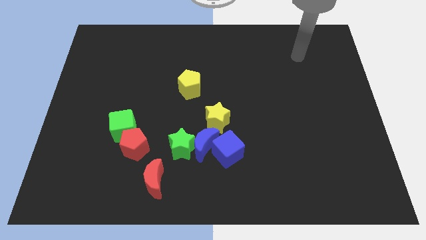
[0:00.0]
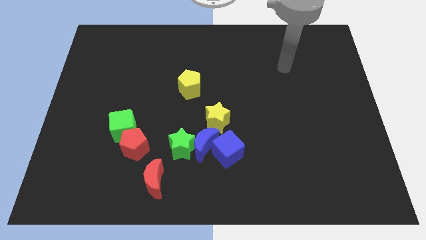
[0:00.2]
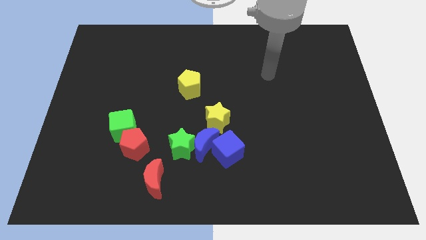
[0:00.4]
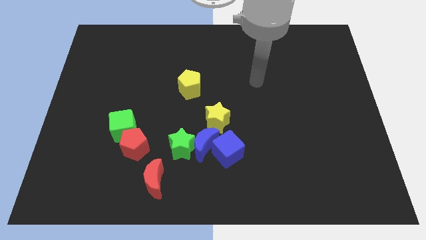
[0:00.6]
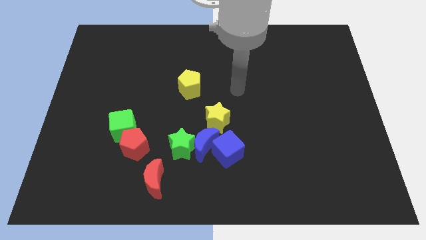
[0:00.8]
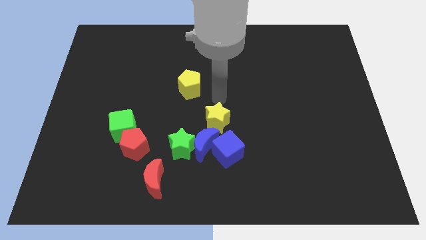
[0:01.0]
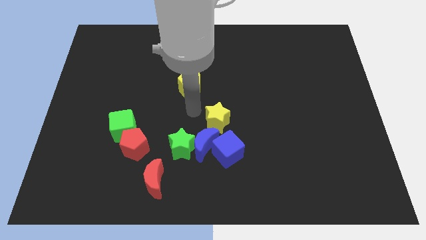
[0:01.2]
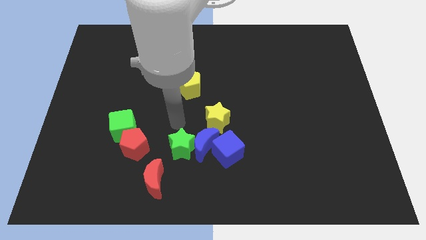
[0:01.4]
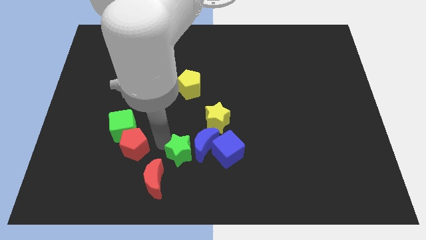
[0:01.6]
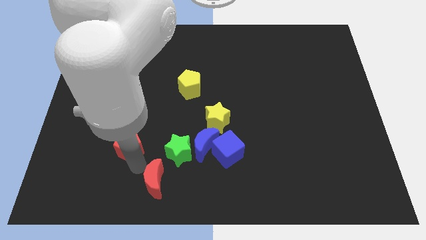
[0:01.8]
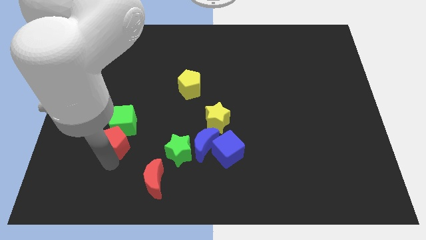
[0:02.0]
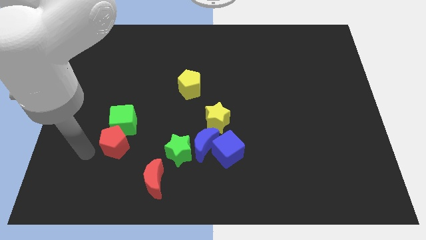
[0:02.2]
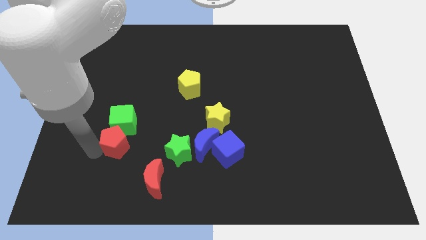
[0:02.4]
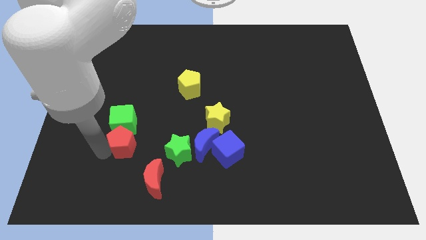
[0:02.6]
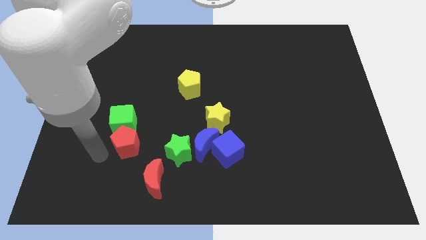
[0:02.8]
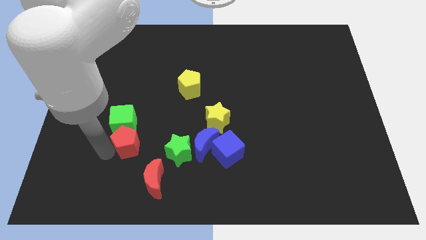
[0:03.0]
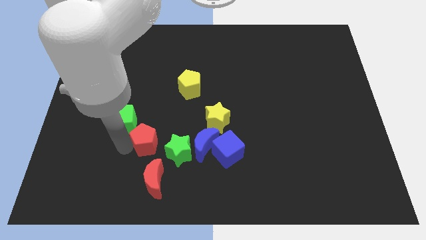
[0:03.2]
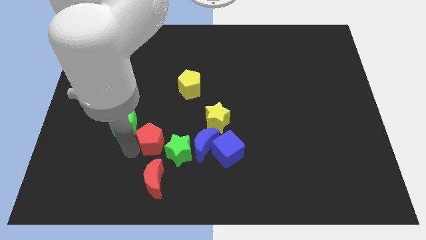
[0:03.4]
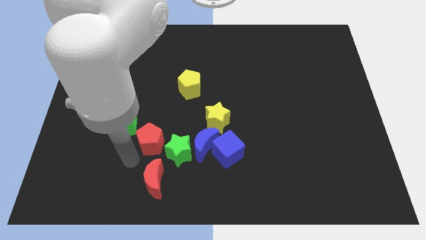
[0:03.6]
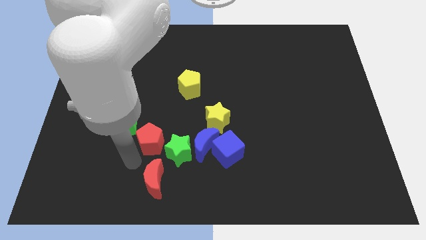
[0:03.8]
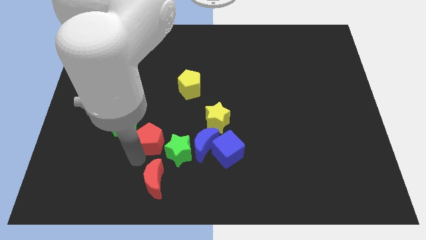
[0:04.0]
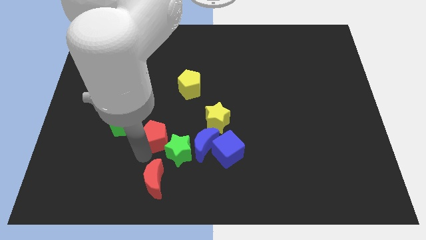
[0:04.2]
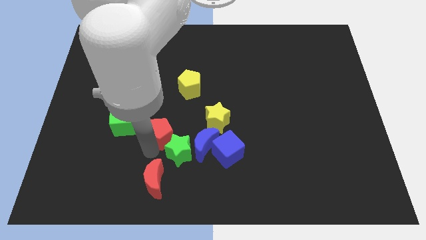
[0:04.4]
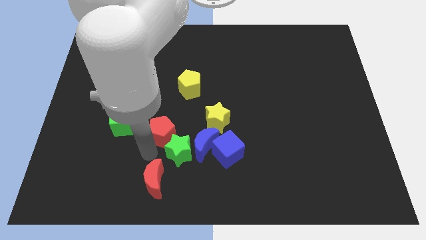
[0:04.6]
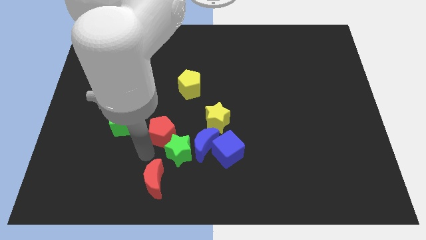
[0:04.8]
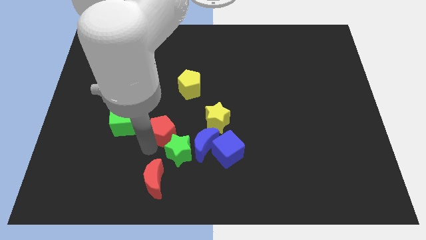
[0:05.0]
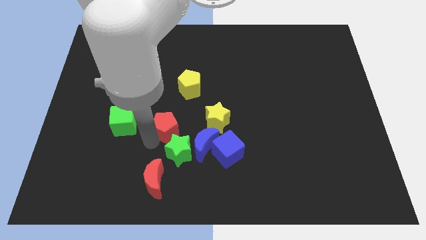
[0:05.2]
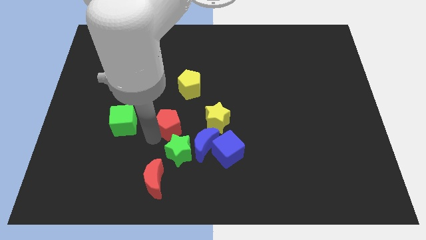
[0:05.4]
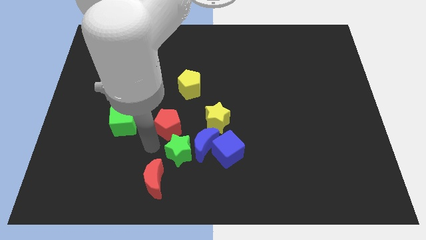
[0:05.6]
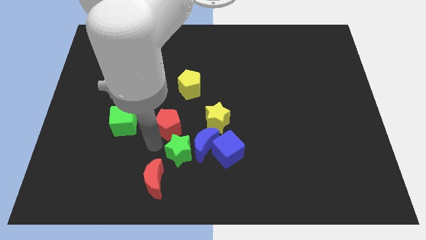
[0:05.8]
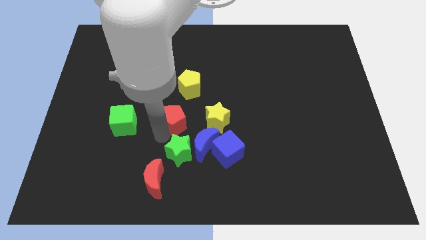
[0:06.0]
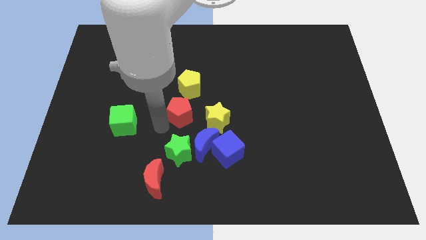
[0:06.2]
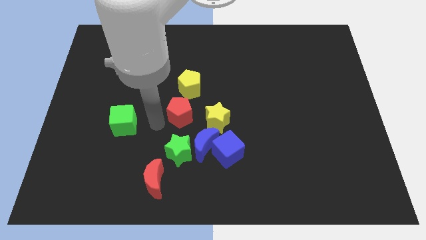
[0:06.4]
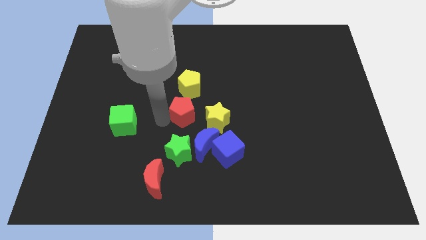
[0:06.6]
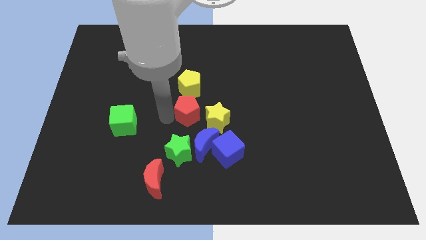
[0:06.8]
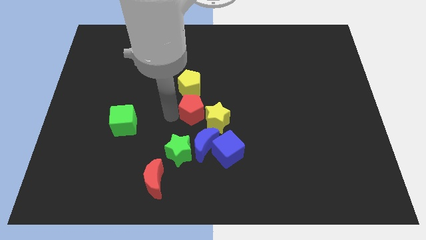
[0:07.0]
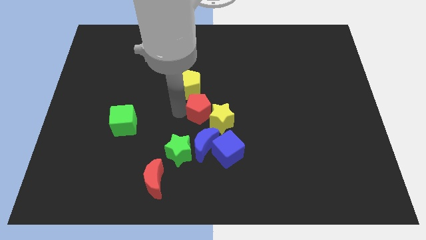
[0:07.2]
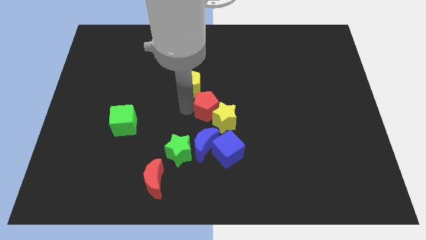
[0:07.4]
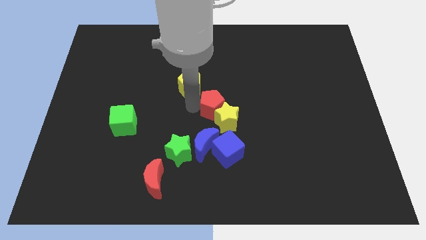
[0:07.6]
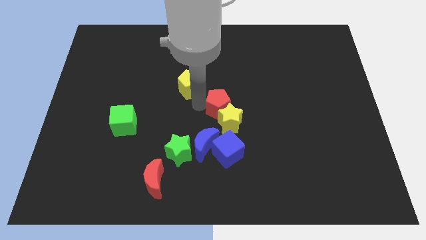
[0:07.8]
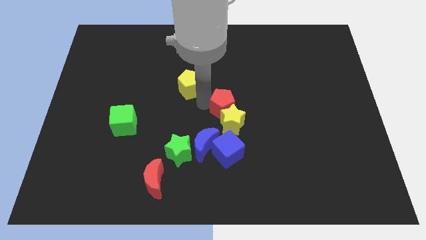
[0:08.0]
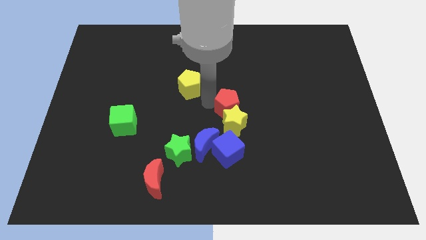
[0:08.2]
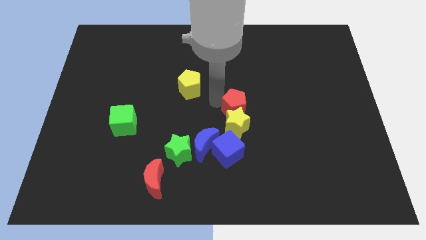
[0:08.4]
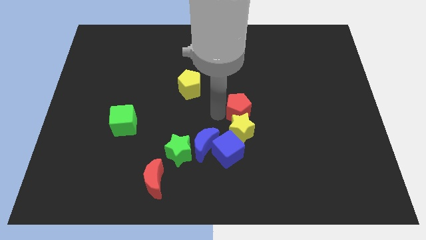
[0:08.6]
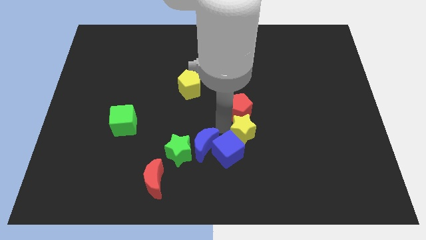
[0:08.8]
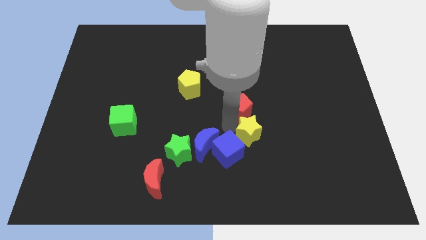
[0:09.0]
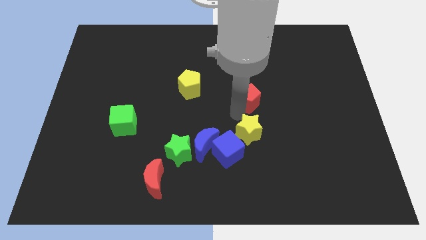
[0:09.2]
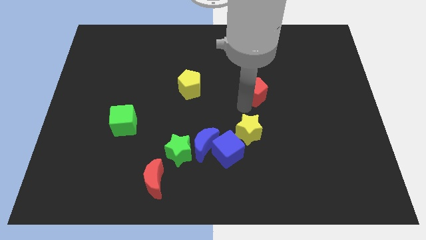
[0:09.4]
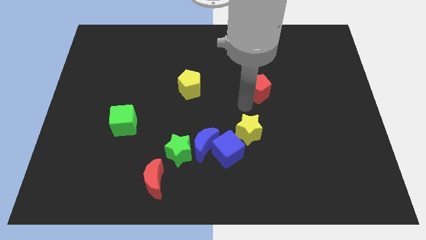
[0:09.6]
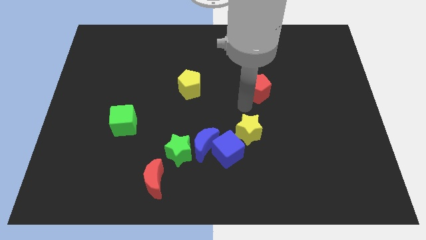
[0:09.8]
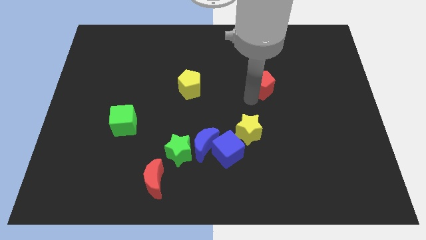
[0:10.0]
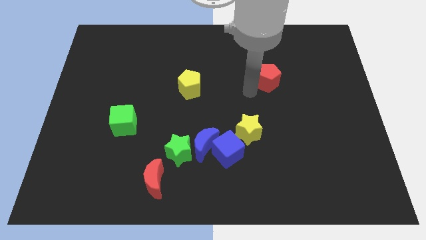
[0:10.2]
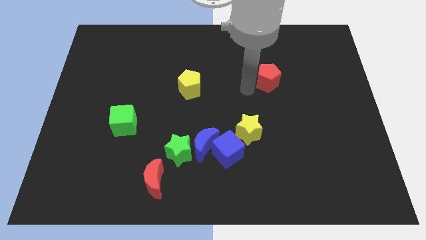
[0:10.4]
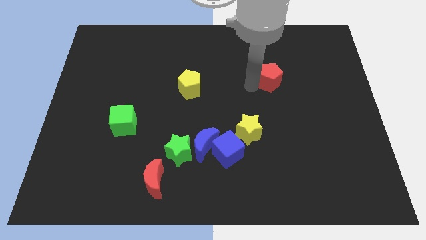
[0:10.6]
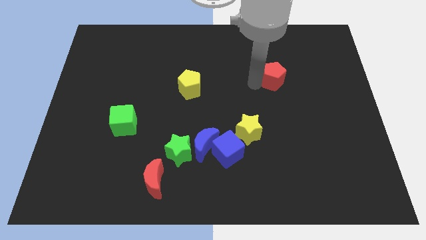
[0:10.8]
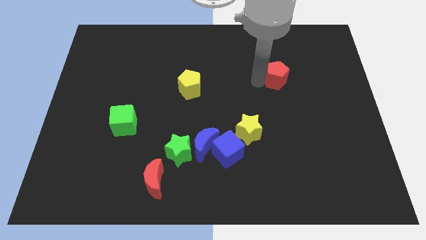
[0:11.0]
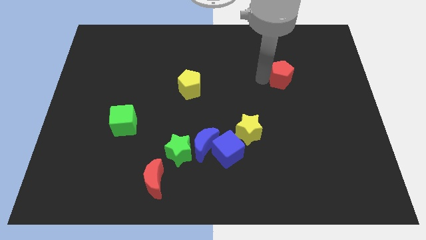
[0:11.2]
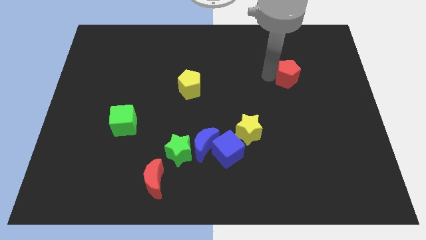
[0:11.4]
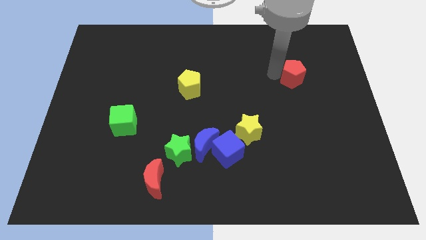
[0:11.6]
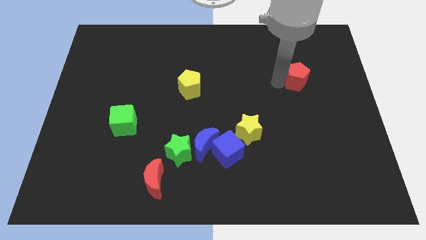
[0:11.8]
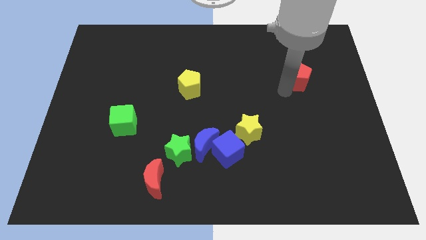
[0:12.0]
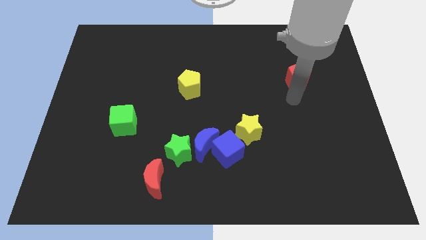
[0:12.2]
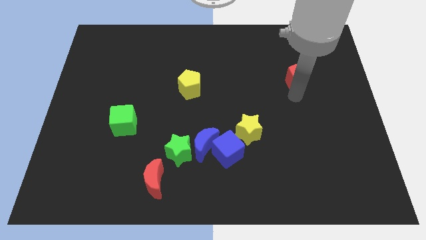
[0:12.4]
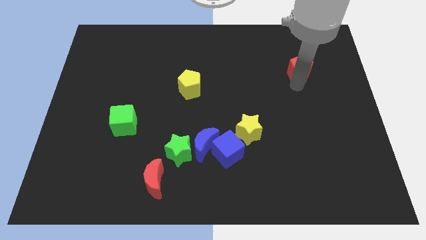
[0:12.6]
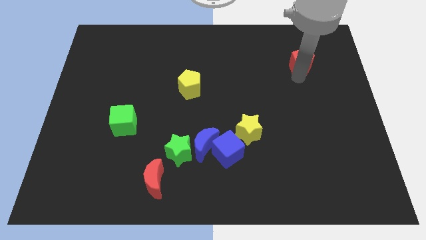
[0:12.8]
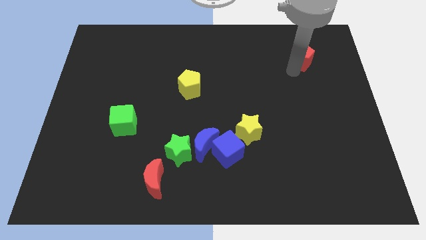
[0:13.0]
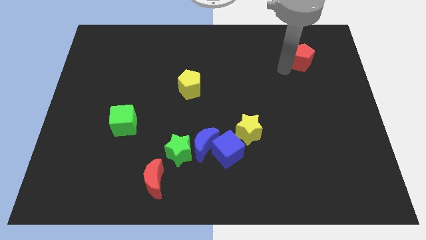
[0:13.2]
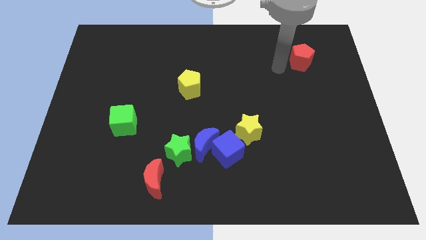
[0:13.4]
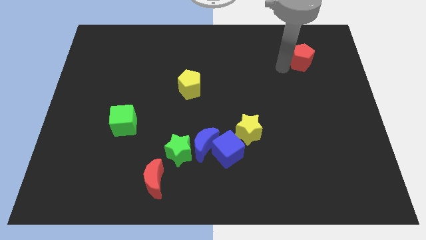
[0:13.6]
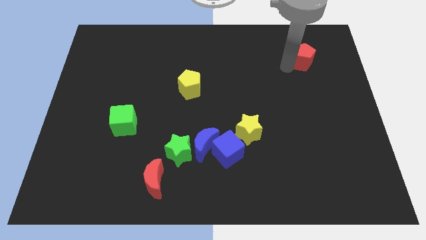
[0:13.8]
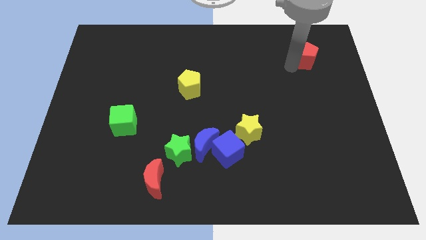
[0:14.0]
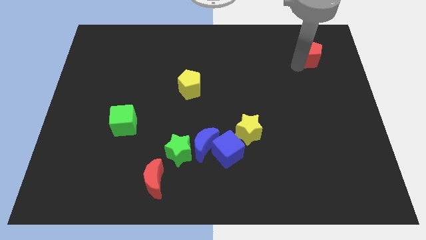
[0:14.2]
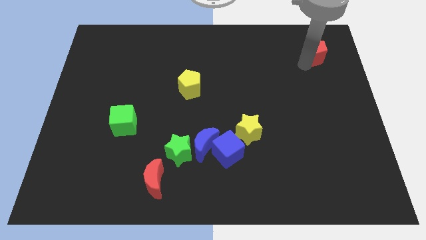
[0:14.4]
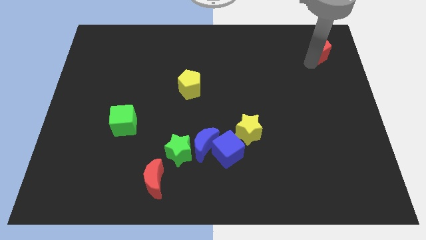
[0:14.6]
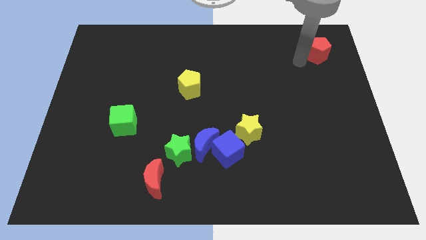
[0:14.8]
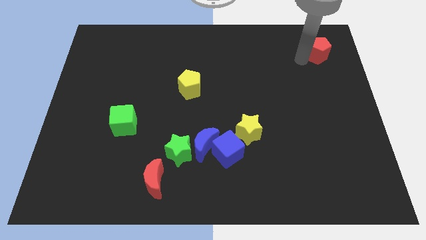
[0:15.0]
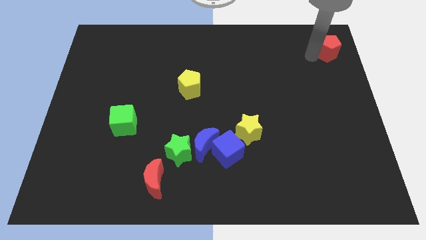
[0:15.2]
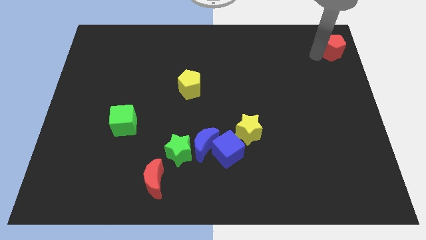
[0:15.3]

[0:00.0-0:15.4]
put the red pentagon to the top right
